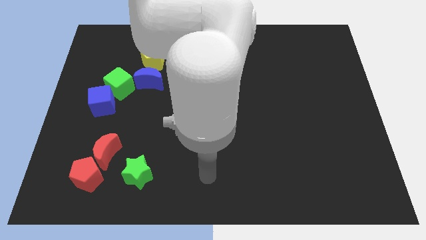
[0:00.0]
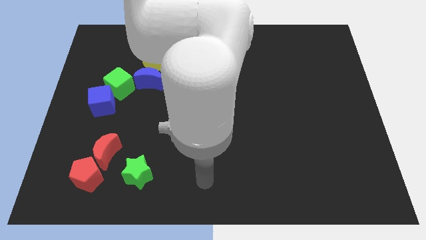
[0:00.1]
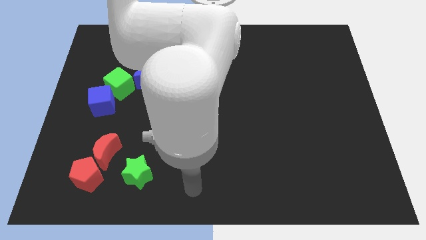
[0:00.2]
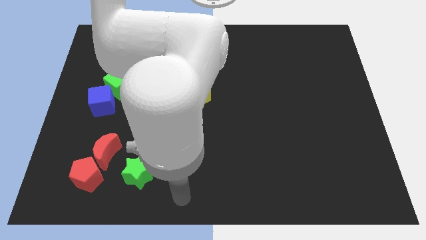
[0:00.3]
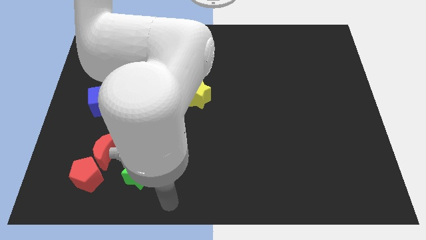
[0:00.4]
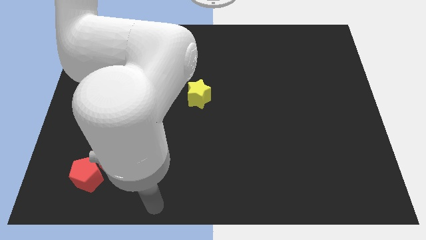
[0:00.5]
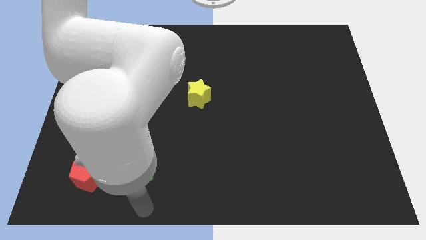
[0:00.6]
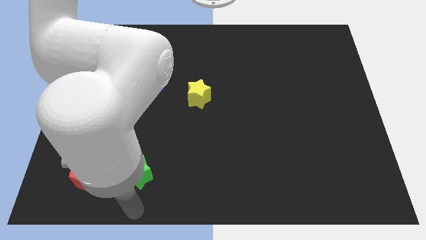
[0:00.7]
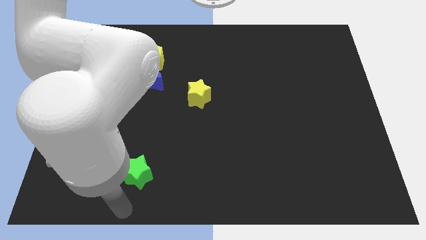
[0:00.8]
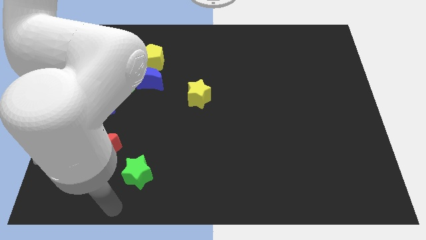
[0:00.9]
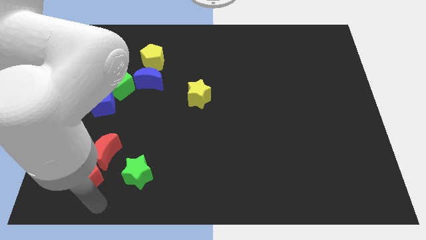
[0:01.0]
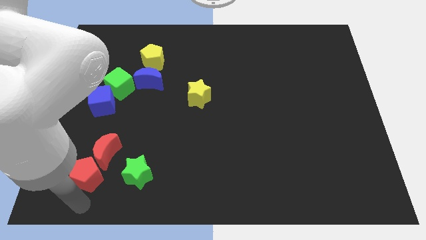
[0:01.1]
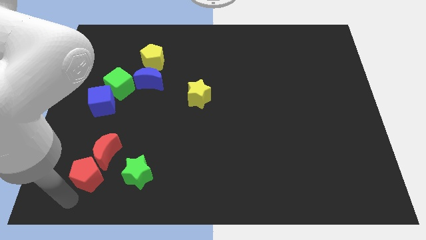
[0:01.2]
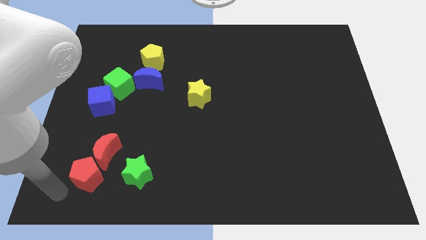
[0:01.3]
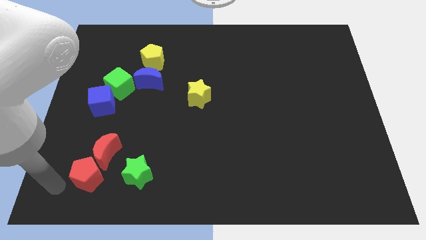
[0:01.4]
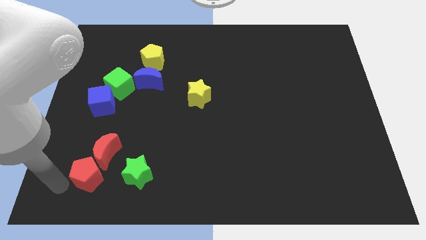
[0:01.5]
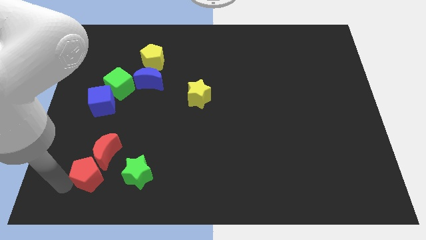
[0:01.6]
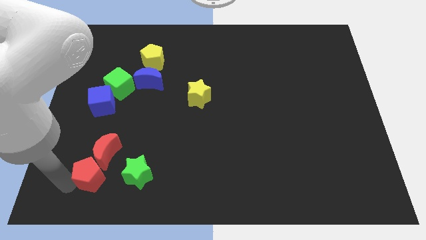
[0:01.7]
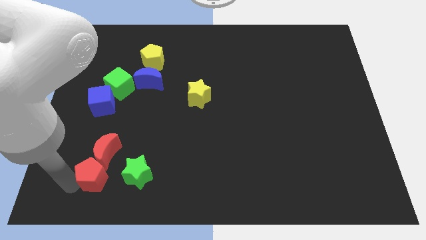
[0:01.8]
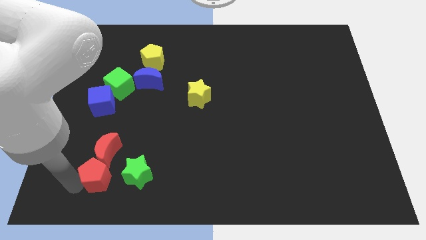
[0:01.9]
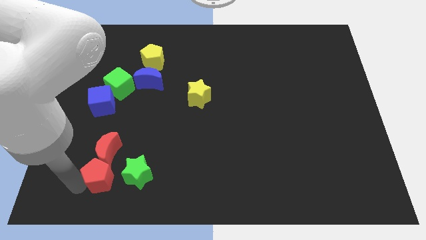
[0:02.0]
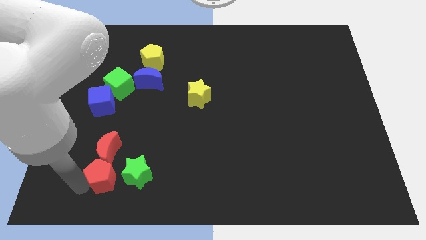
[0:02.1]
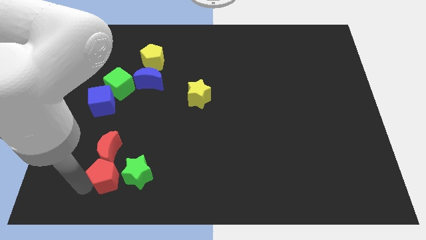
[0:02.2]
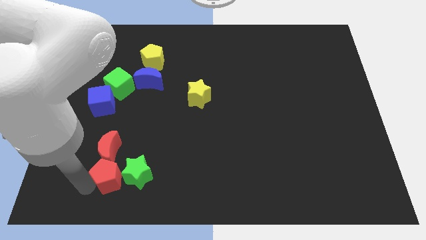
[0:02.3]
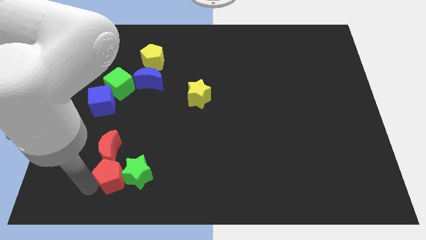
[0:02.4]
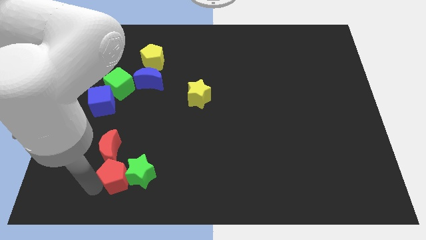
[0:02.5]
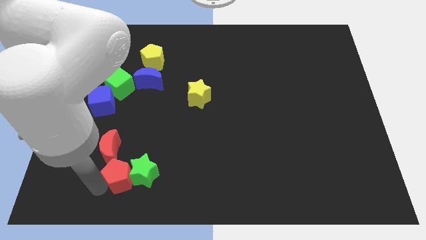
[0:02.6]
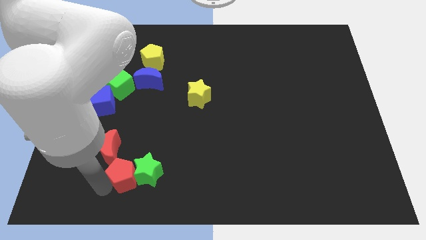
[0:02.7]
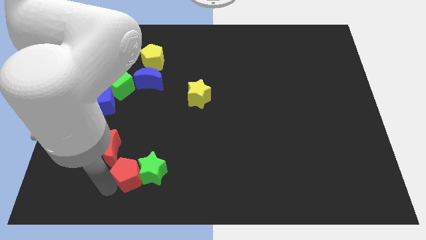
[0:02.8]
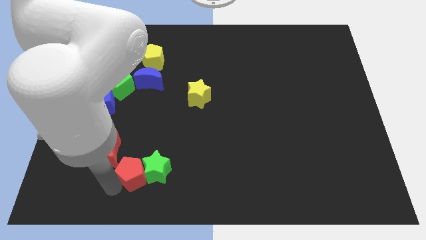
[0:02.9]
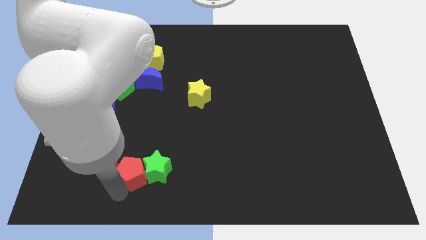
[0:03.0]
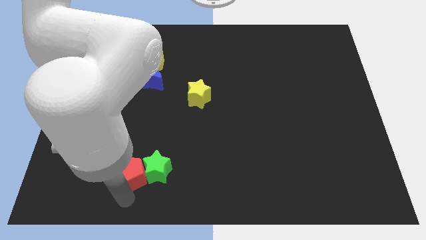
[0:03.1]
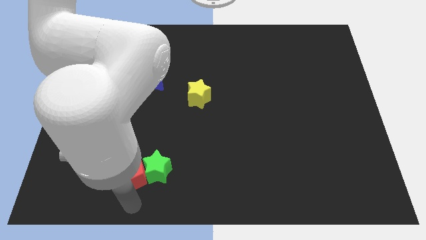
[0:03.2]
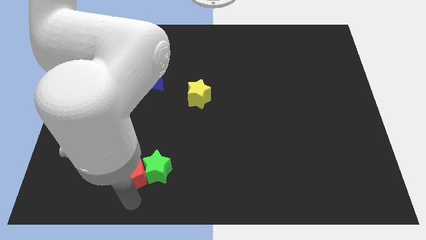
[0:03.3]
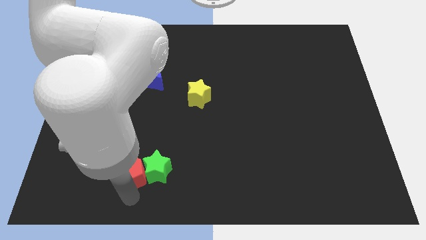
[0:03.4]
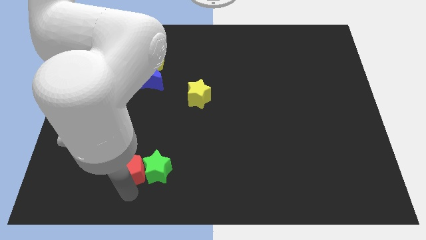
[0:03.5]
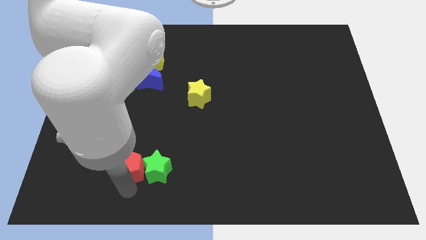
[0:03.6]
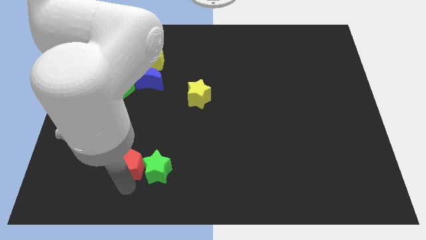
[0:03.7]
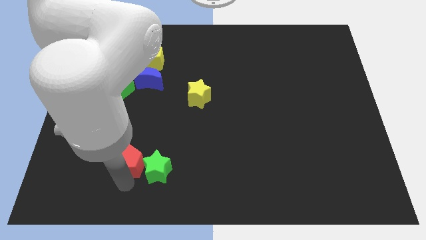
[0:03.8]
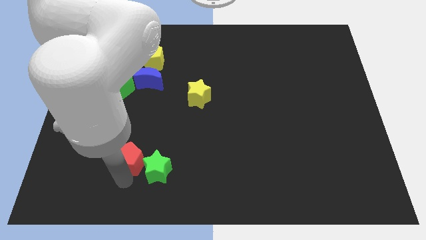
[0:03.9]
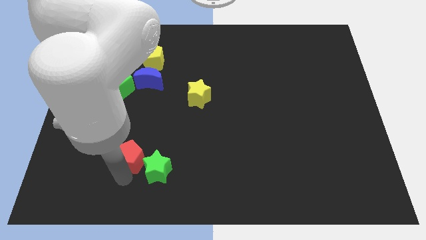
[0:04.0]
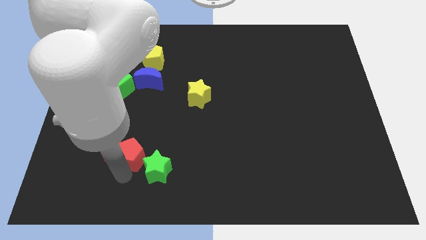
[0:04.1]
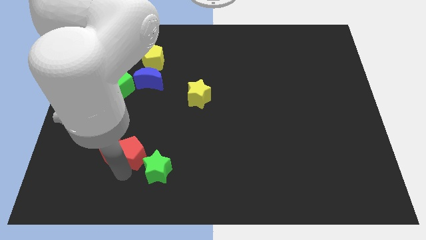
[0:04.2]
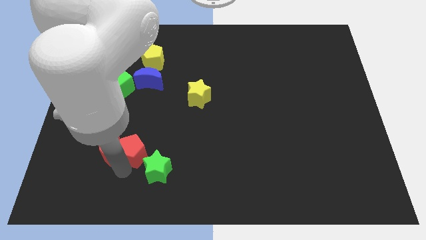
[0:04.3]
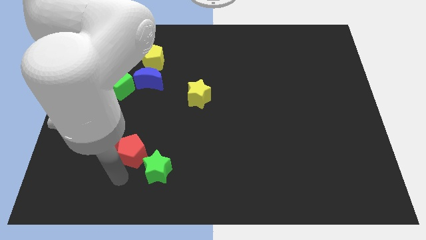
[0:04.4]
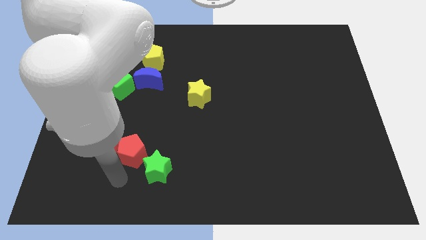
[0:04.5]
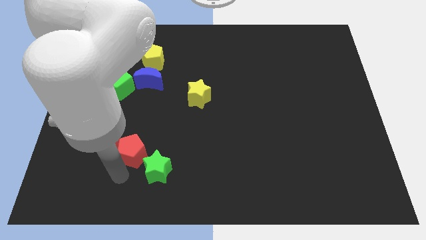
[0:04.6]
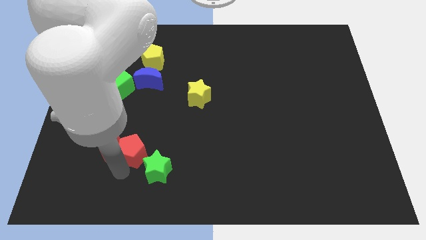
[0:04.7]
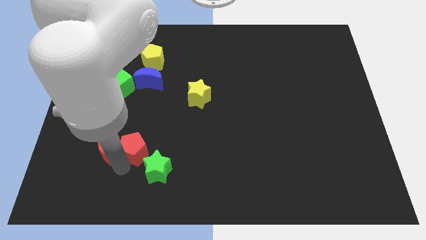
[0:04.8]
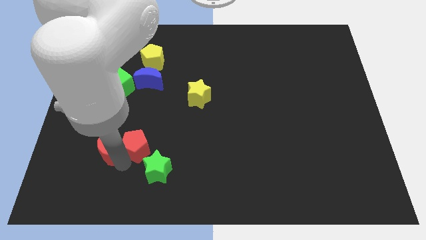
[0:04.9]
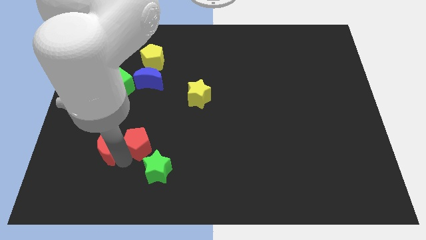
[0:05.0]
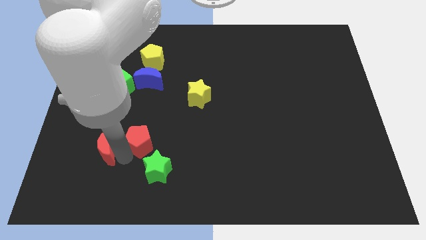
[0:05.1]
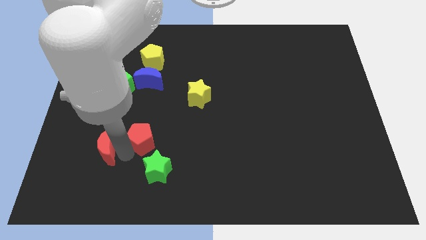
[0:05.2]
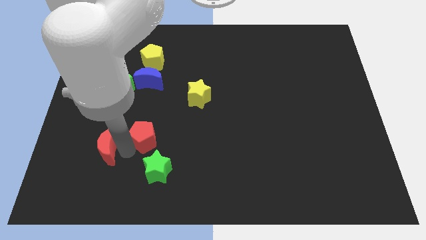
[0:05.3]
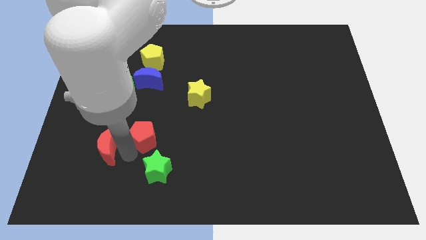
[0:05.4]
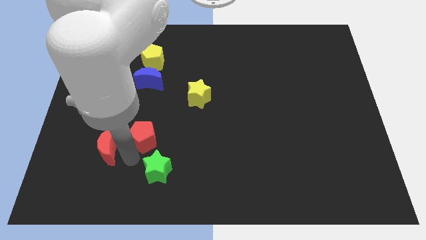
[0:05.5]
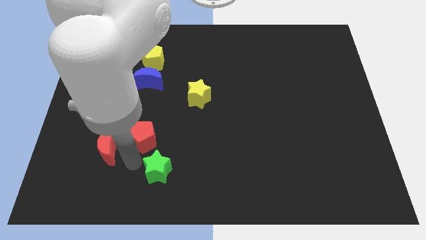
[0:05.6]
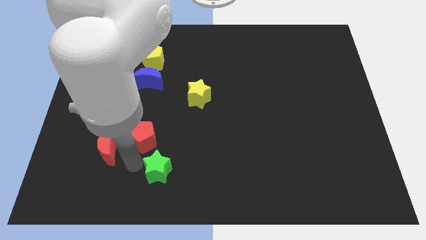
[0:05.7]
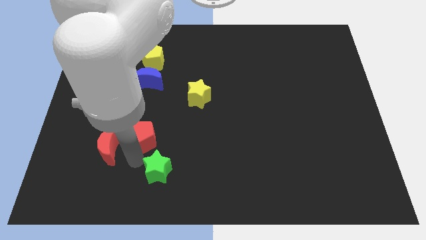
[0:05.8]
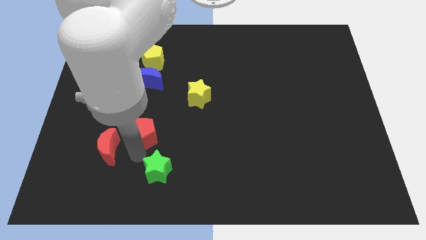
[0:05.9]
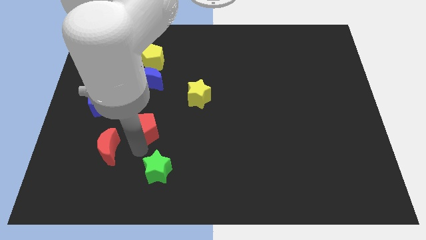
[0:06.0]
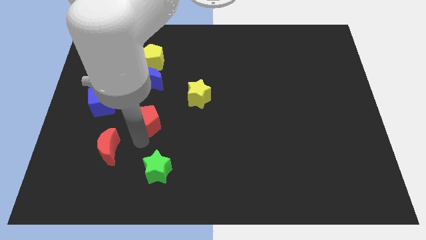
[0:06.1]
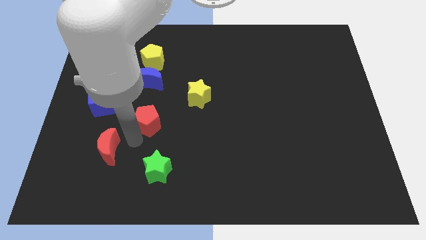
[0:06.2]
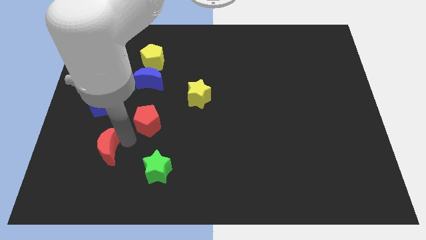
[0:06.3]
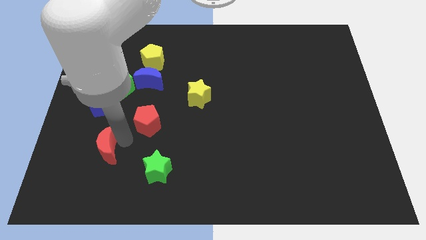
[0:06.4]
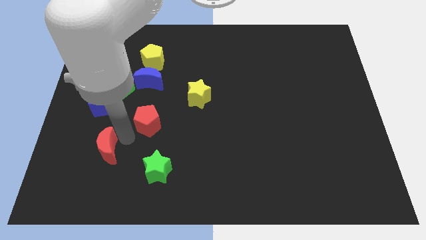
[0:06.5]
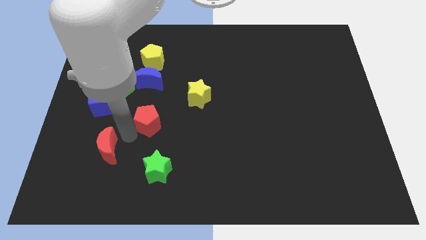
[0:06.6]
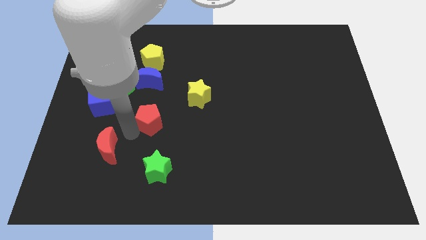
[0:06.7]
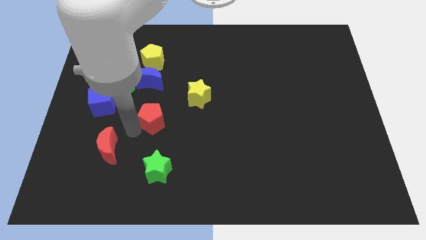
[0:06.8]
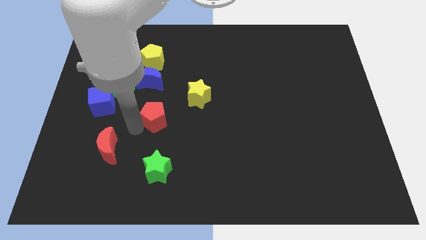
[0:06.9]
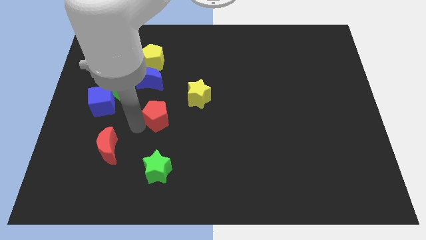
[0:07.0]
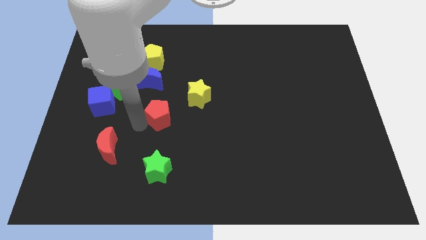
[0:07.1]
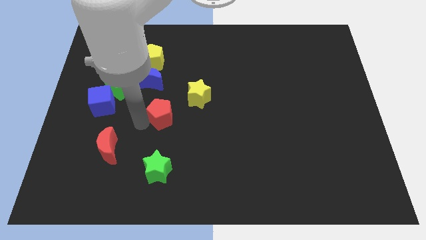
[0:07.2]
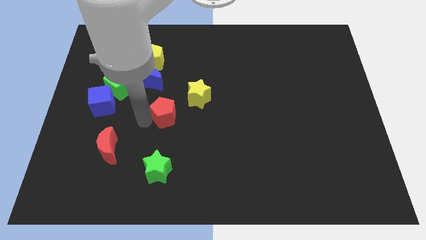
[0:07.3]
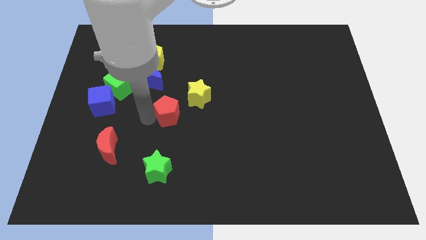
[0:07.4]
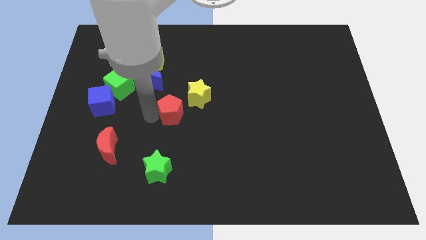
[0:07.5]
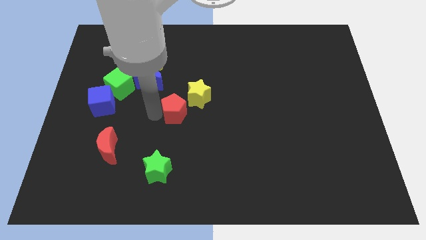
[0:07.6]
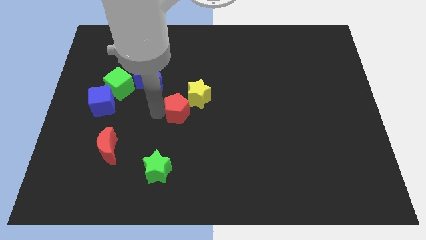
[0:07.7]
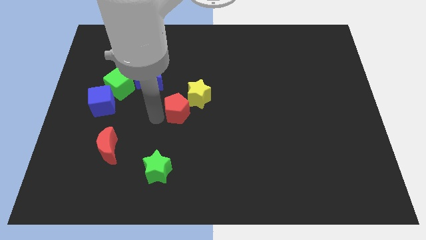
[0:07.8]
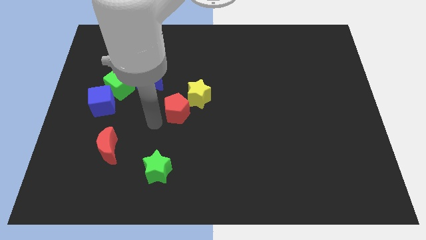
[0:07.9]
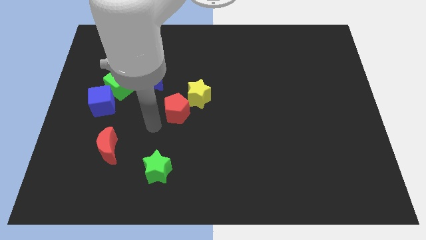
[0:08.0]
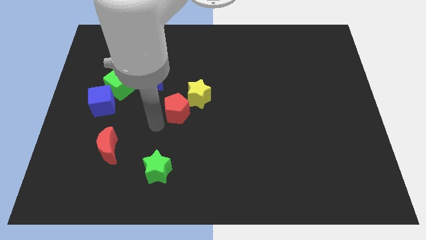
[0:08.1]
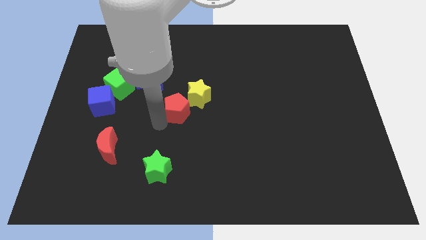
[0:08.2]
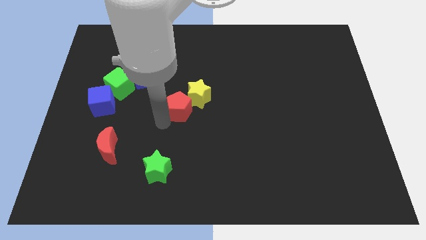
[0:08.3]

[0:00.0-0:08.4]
move the red pentagon to the yellow star
